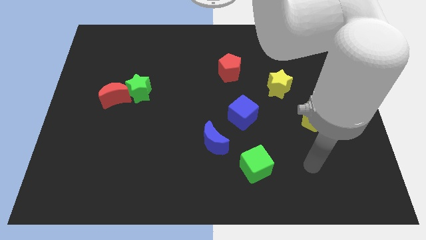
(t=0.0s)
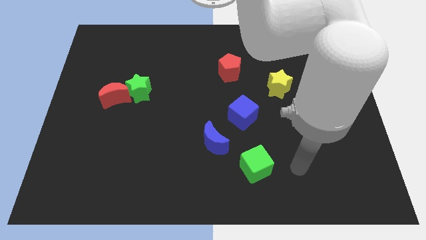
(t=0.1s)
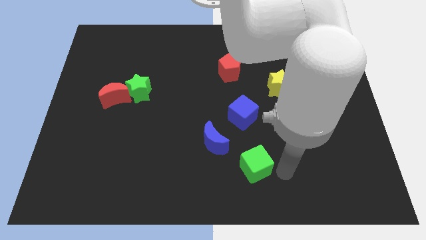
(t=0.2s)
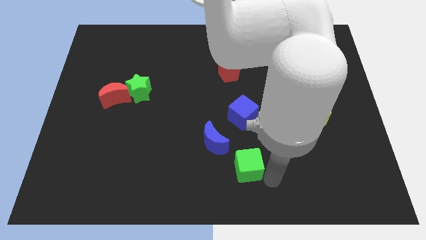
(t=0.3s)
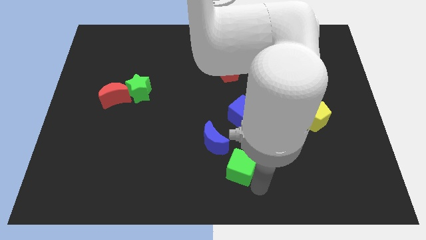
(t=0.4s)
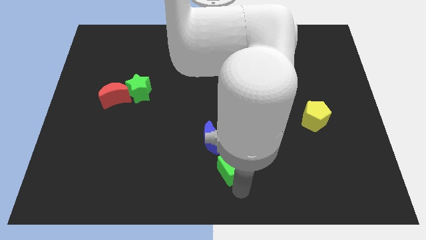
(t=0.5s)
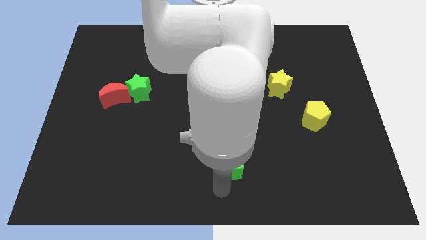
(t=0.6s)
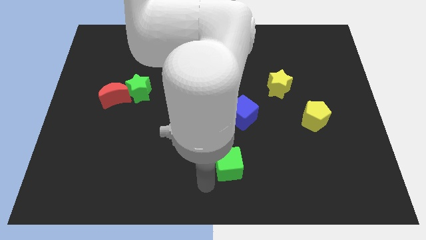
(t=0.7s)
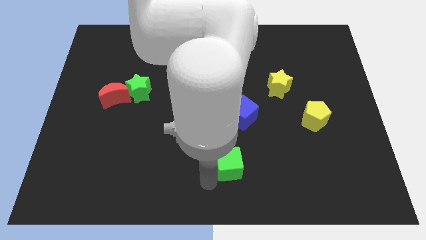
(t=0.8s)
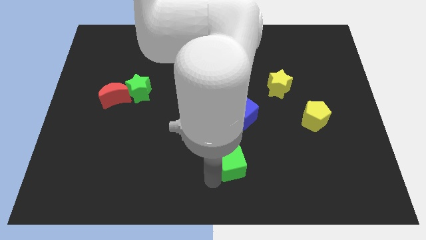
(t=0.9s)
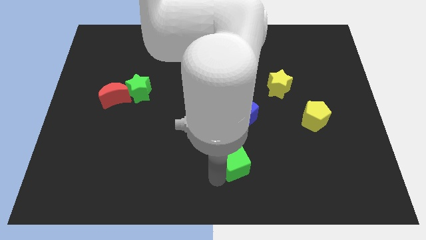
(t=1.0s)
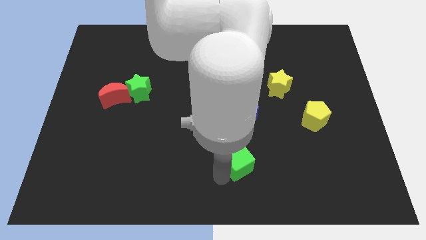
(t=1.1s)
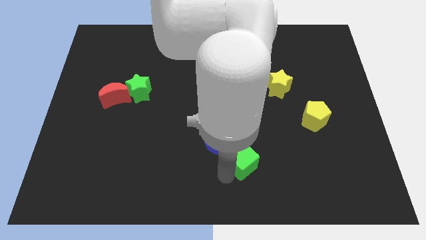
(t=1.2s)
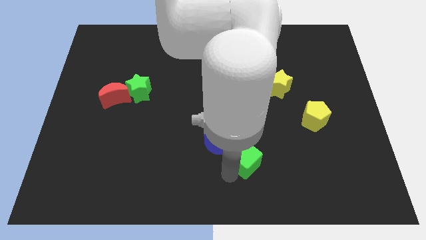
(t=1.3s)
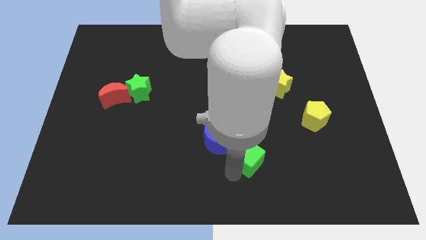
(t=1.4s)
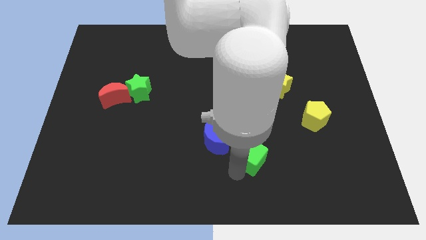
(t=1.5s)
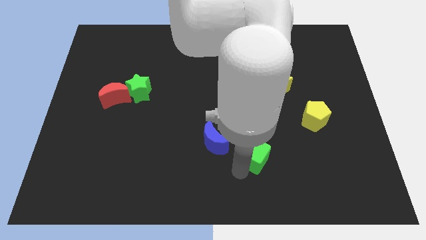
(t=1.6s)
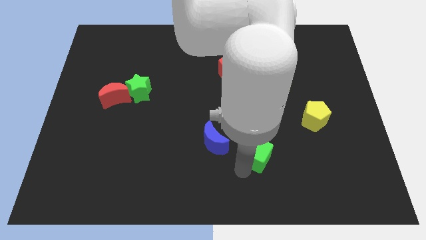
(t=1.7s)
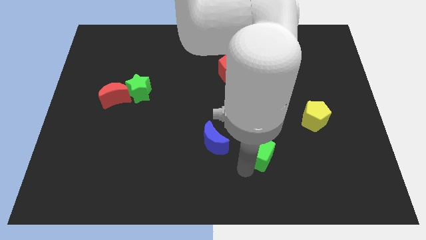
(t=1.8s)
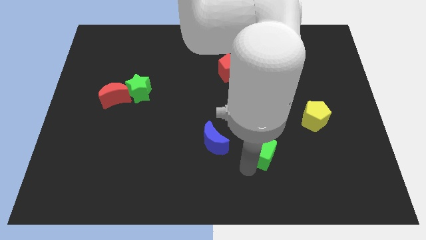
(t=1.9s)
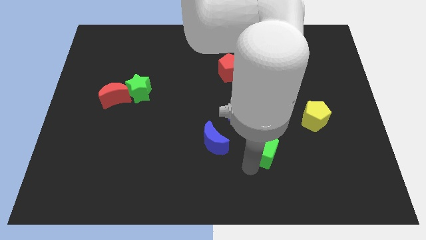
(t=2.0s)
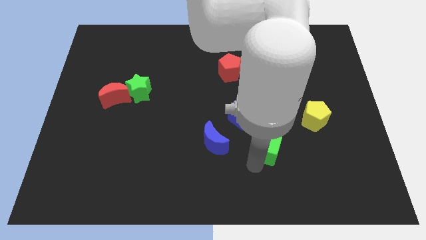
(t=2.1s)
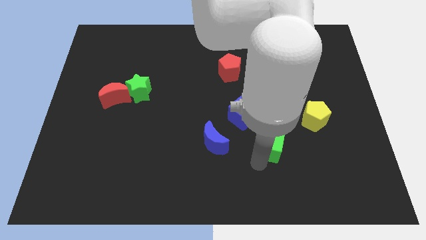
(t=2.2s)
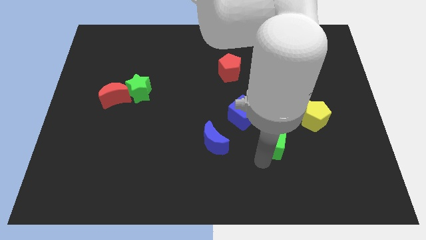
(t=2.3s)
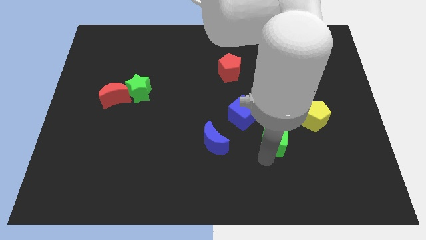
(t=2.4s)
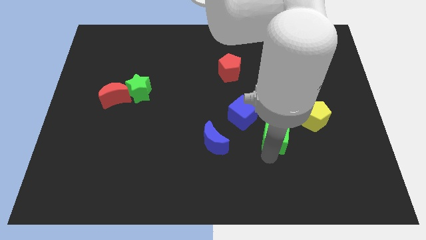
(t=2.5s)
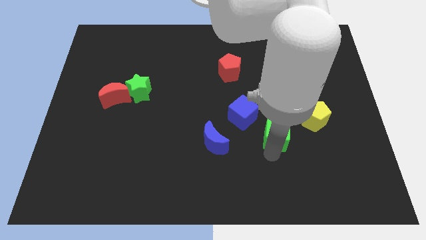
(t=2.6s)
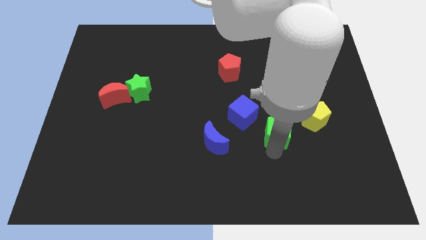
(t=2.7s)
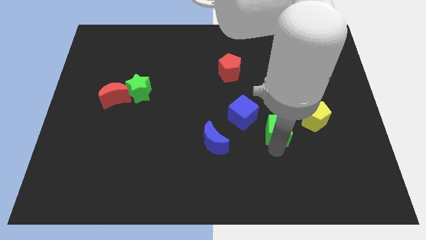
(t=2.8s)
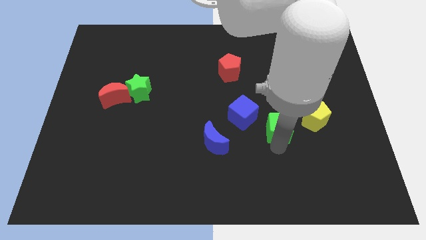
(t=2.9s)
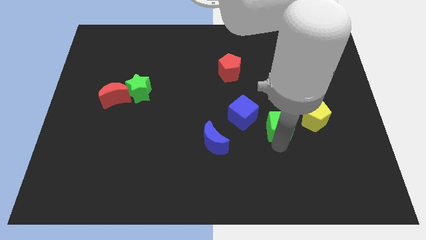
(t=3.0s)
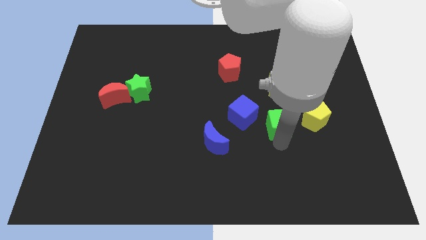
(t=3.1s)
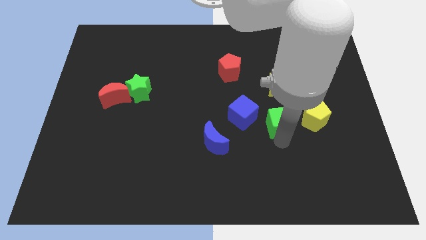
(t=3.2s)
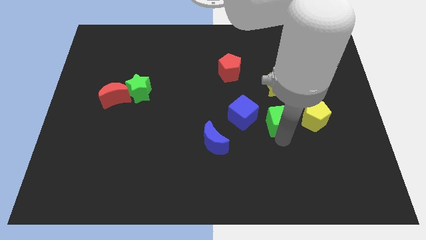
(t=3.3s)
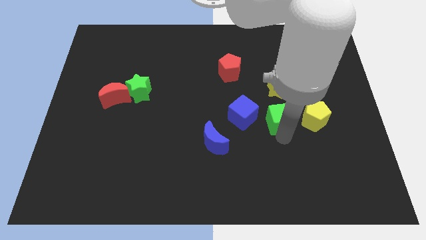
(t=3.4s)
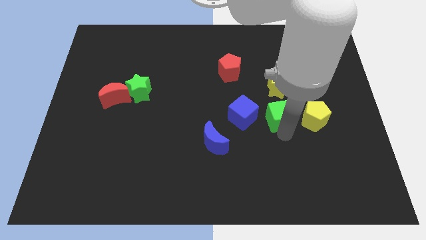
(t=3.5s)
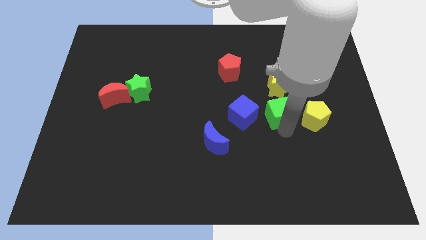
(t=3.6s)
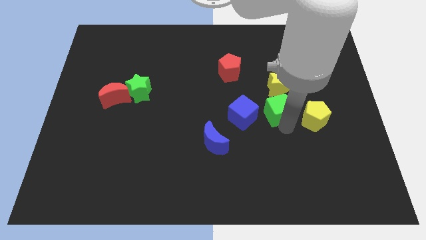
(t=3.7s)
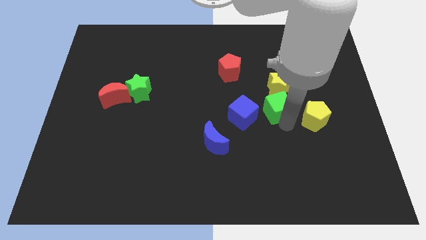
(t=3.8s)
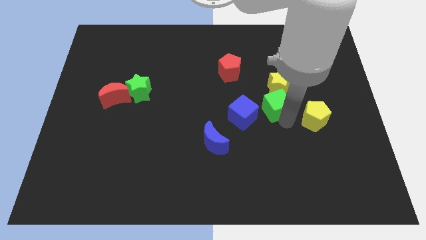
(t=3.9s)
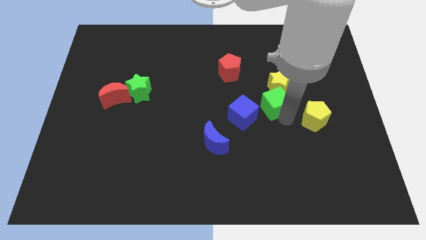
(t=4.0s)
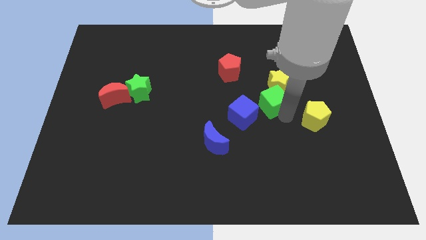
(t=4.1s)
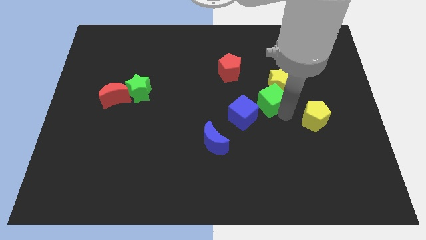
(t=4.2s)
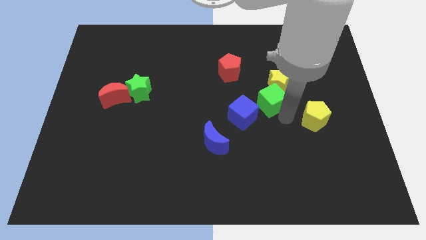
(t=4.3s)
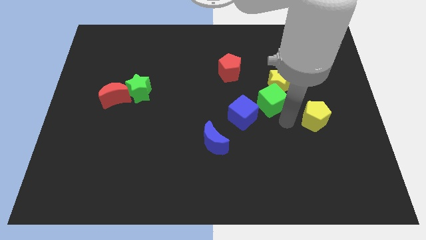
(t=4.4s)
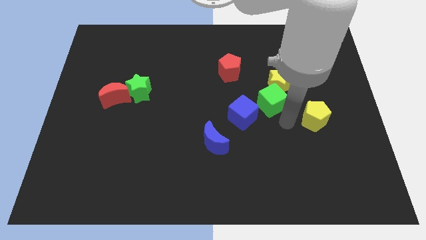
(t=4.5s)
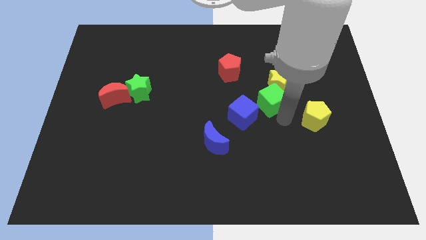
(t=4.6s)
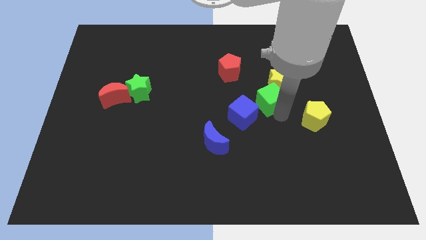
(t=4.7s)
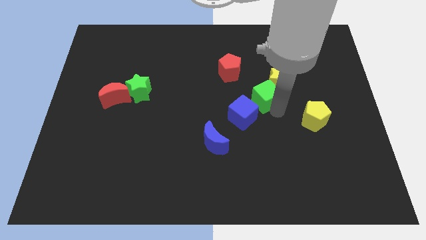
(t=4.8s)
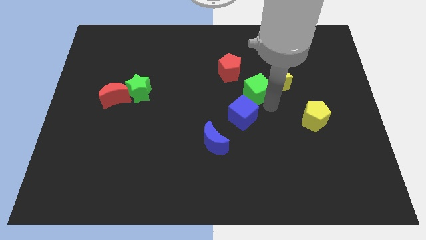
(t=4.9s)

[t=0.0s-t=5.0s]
slide the green cube upwards

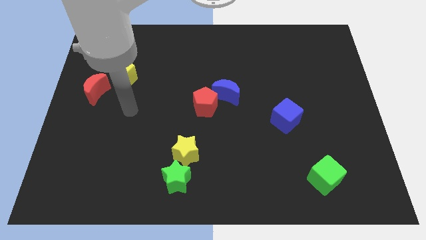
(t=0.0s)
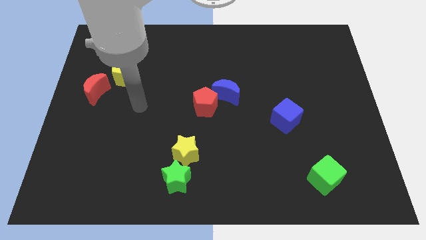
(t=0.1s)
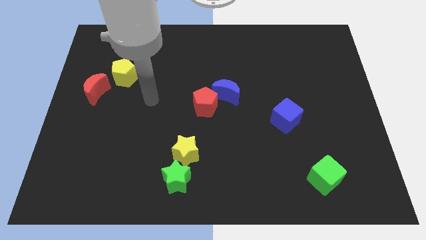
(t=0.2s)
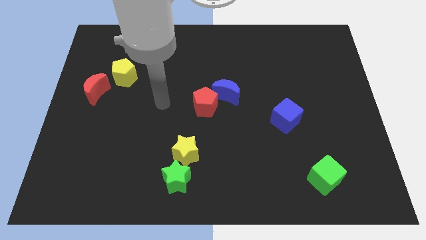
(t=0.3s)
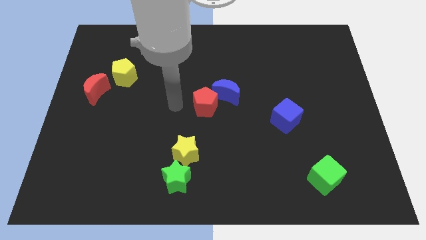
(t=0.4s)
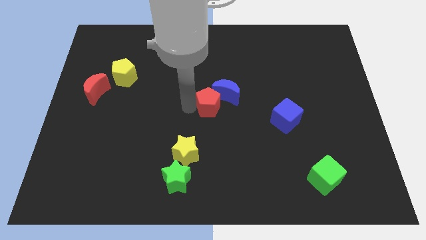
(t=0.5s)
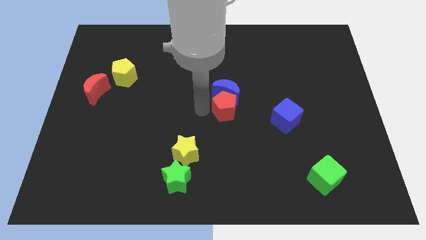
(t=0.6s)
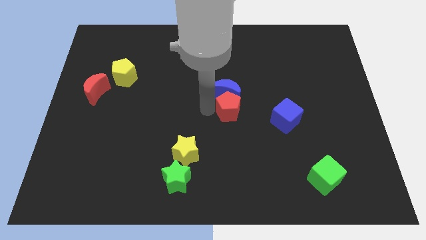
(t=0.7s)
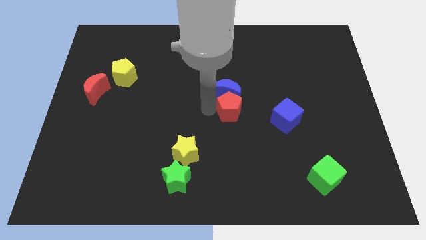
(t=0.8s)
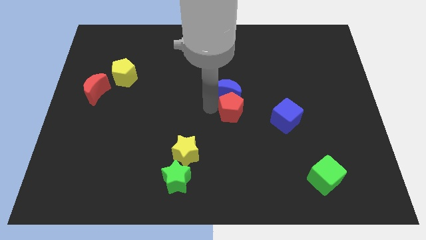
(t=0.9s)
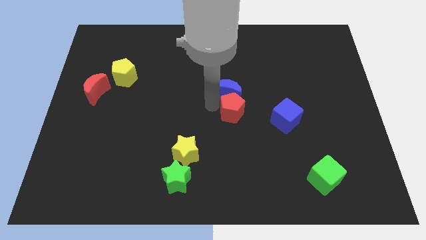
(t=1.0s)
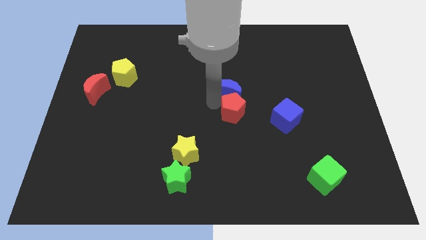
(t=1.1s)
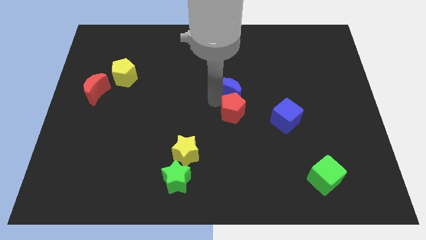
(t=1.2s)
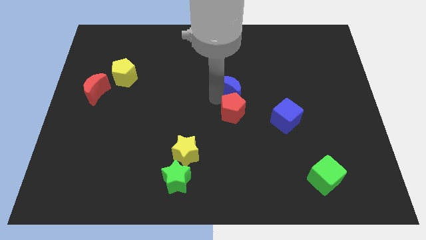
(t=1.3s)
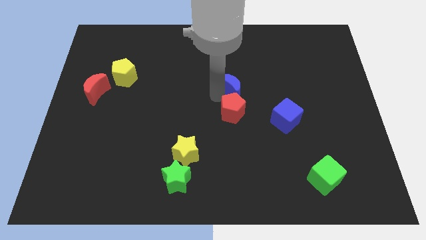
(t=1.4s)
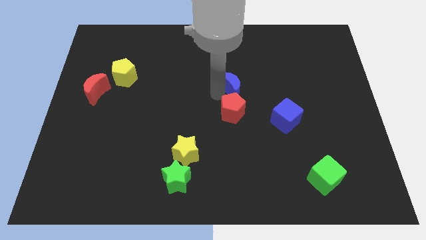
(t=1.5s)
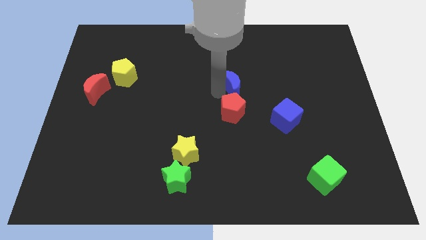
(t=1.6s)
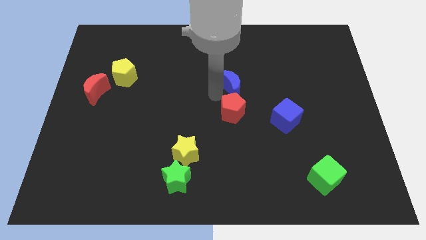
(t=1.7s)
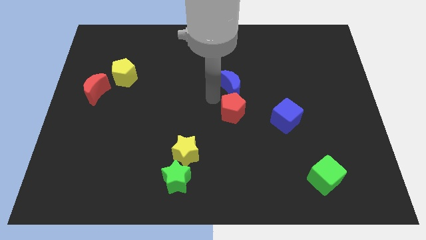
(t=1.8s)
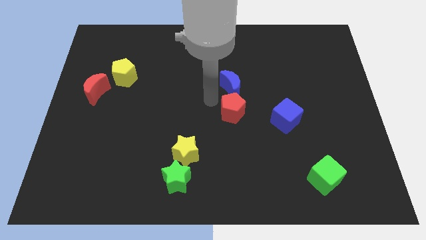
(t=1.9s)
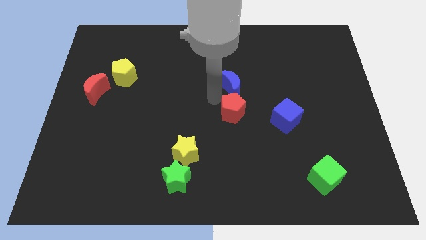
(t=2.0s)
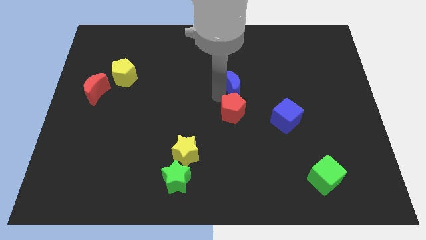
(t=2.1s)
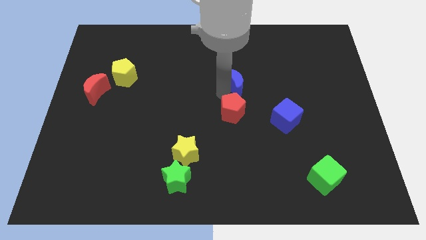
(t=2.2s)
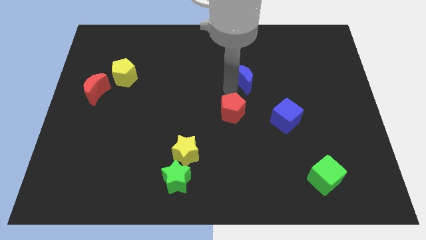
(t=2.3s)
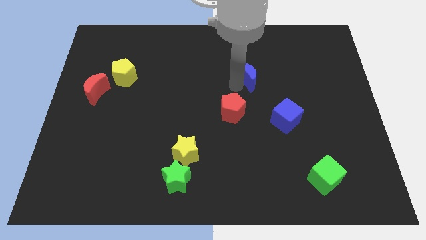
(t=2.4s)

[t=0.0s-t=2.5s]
push the blue moon a little upwards and to the right

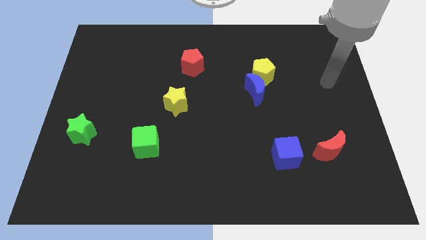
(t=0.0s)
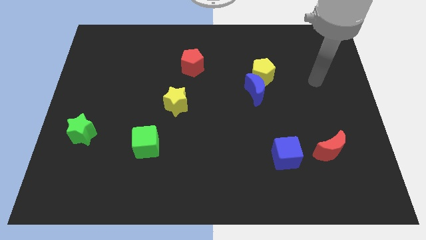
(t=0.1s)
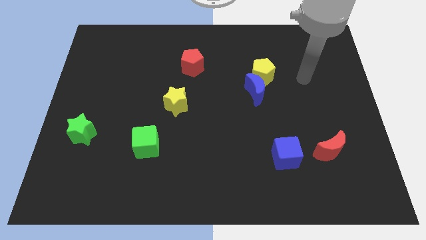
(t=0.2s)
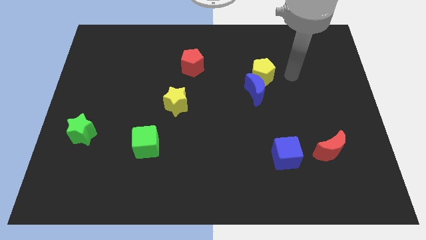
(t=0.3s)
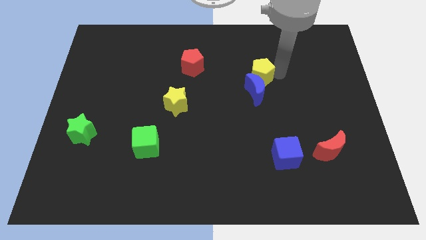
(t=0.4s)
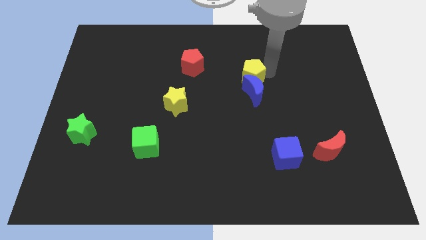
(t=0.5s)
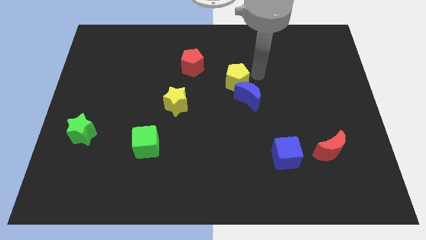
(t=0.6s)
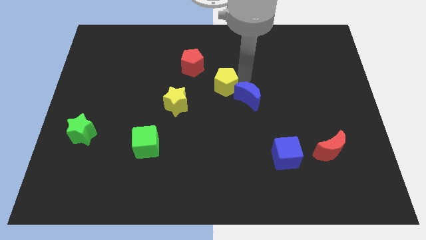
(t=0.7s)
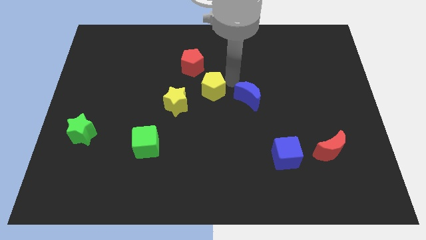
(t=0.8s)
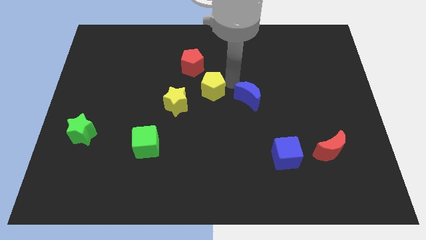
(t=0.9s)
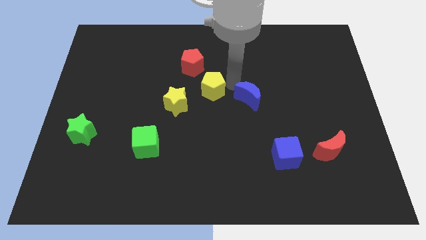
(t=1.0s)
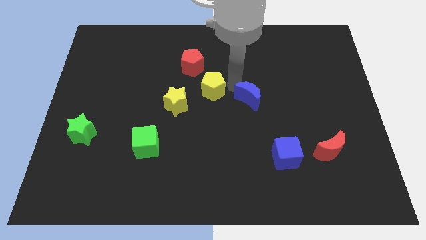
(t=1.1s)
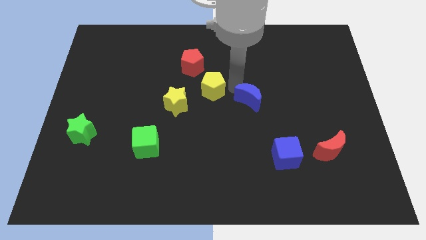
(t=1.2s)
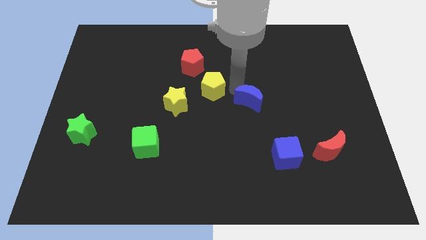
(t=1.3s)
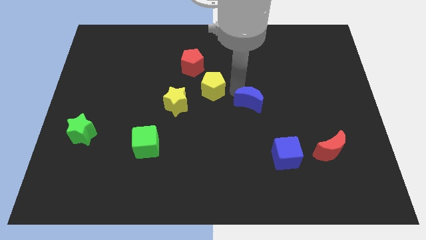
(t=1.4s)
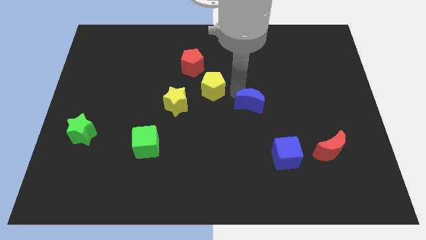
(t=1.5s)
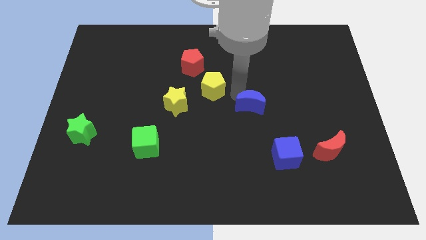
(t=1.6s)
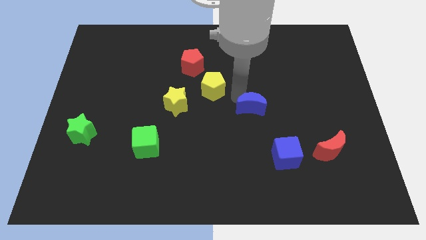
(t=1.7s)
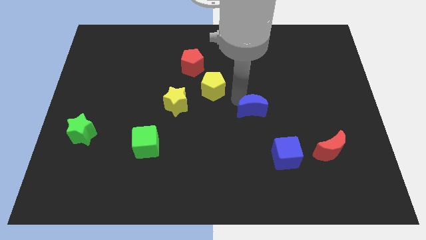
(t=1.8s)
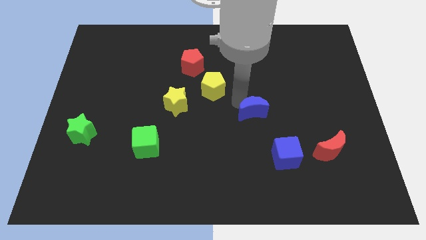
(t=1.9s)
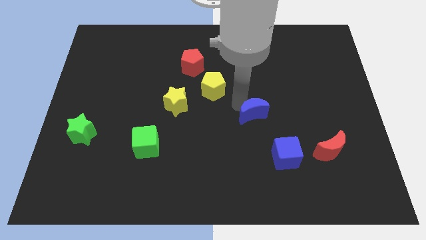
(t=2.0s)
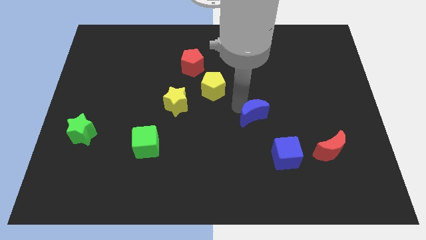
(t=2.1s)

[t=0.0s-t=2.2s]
slightly push the blue moon downwards
